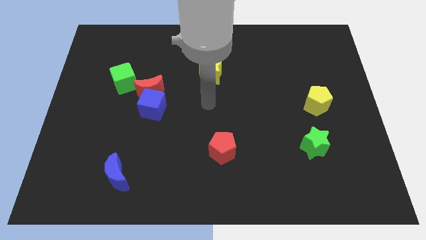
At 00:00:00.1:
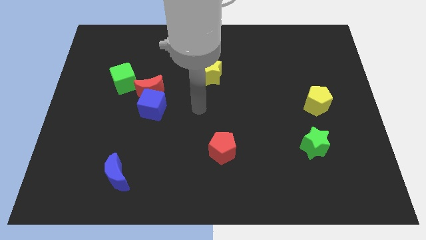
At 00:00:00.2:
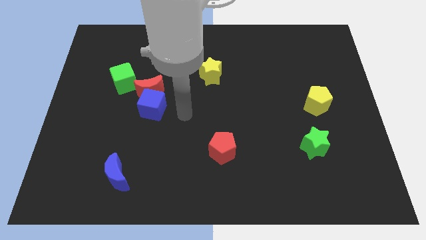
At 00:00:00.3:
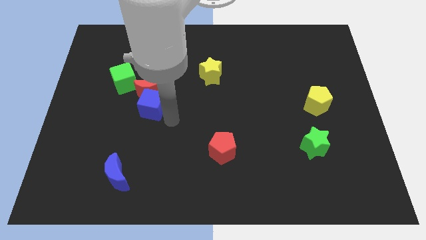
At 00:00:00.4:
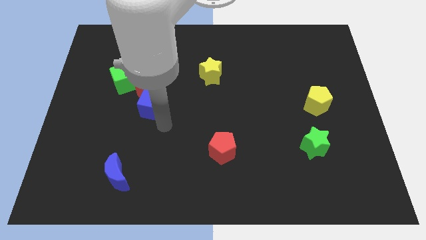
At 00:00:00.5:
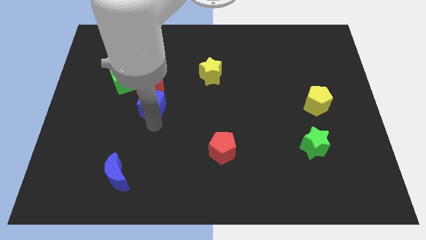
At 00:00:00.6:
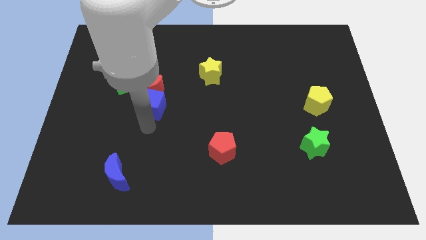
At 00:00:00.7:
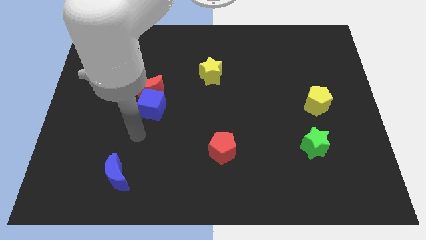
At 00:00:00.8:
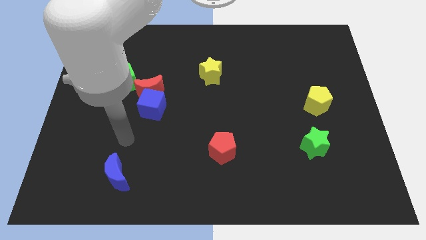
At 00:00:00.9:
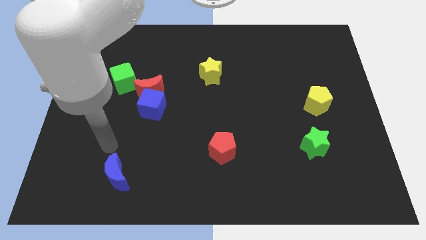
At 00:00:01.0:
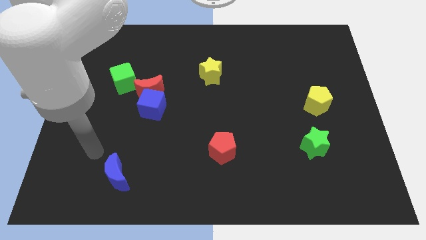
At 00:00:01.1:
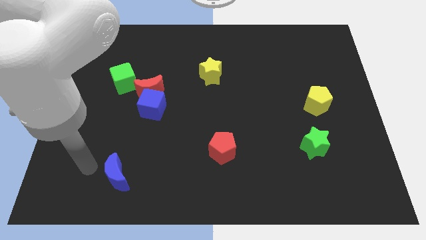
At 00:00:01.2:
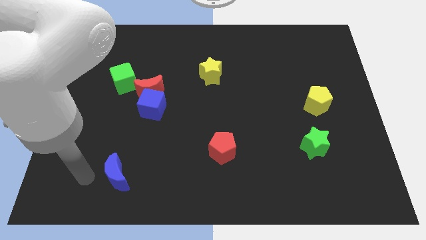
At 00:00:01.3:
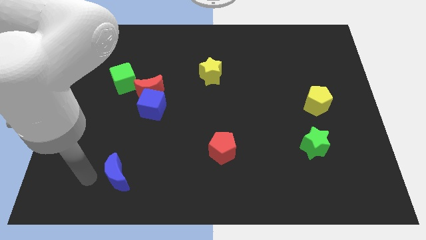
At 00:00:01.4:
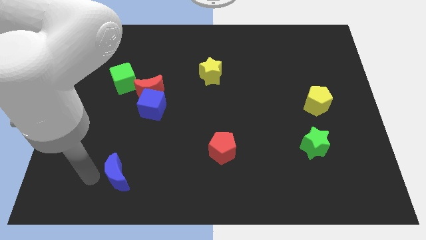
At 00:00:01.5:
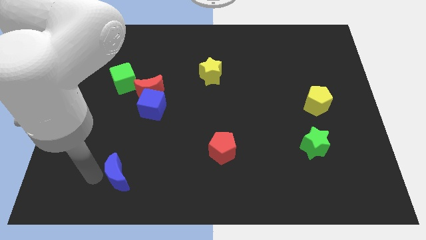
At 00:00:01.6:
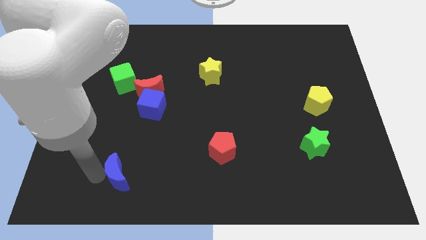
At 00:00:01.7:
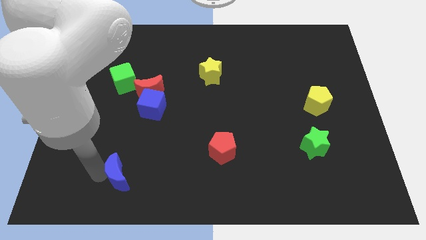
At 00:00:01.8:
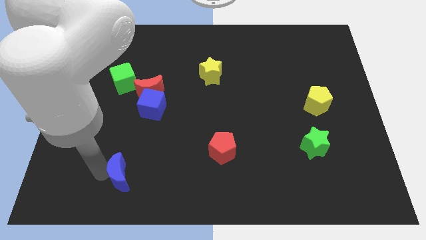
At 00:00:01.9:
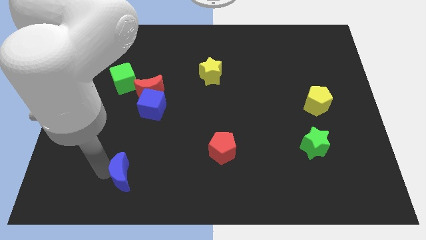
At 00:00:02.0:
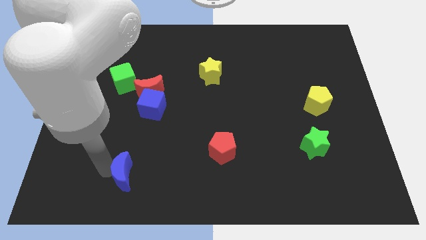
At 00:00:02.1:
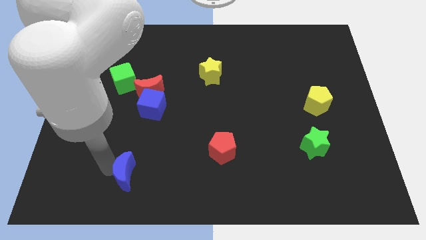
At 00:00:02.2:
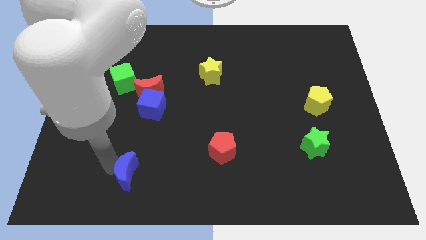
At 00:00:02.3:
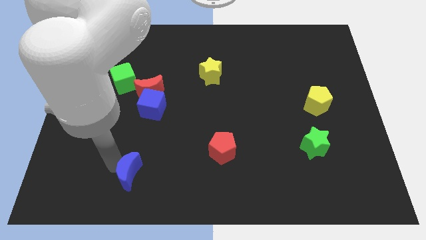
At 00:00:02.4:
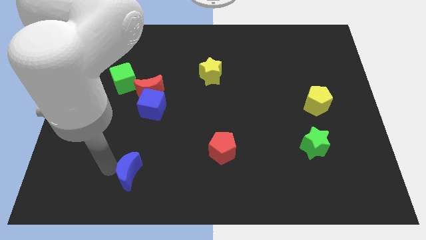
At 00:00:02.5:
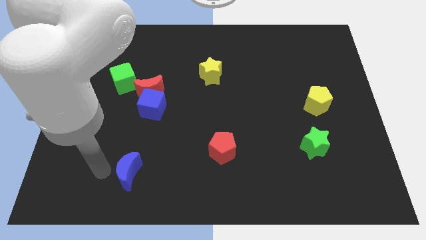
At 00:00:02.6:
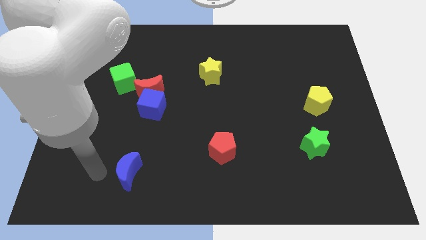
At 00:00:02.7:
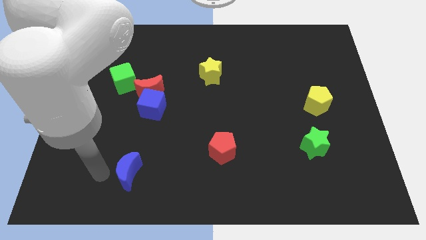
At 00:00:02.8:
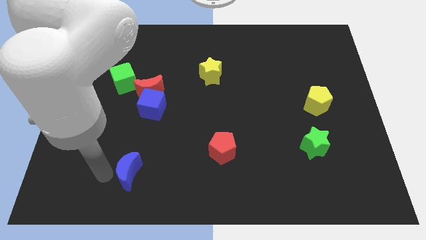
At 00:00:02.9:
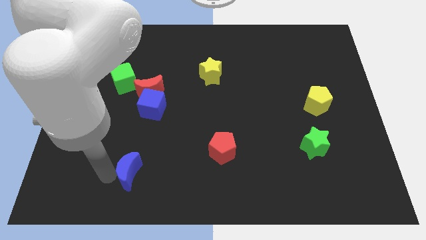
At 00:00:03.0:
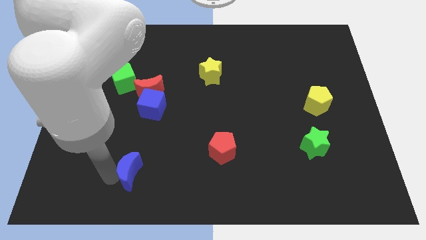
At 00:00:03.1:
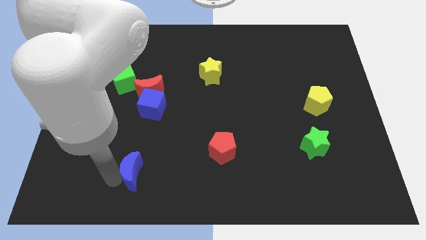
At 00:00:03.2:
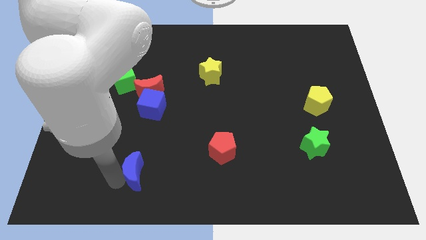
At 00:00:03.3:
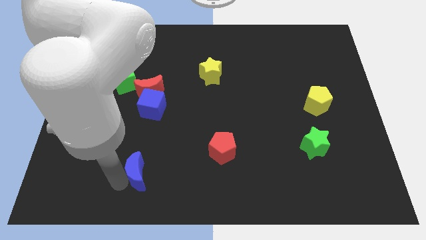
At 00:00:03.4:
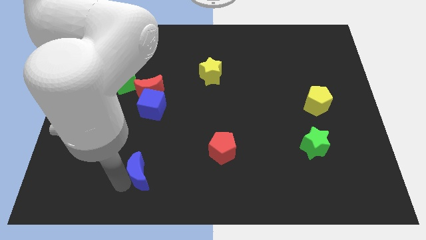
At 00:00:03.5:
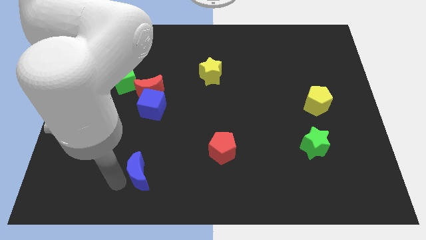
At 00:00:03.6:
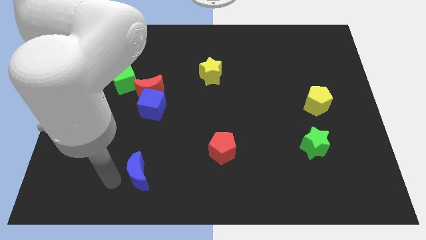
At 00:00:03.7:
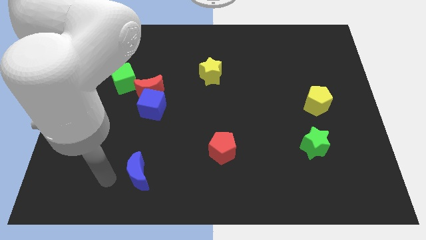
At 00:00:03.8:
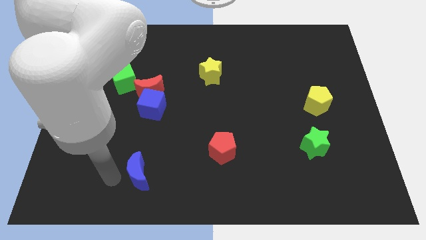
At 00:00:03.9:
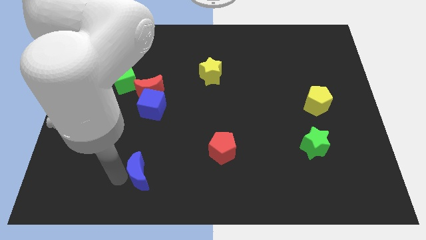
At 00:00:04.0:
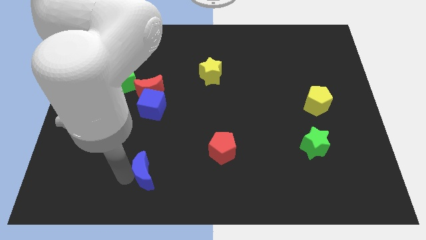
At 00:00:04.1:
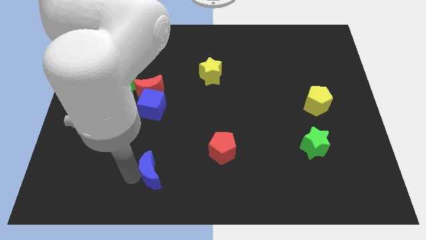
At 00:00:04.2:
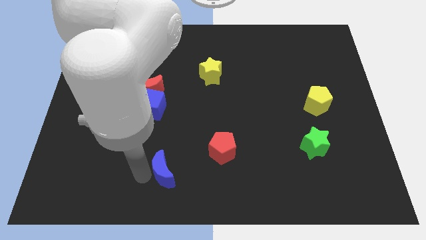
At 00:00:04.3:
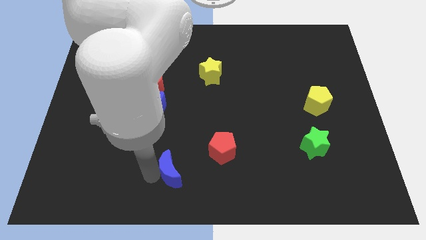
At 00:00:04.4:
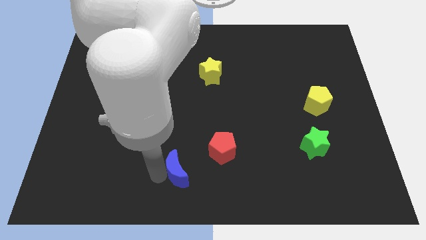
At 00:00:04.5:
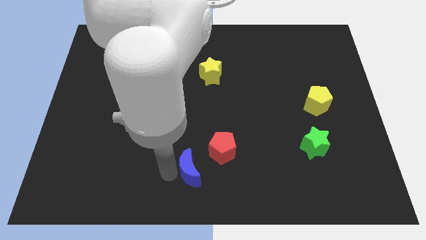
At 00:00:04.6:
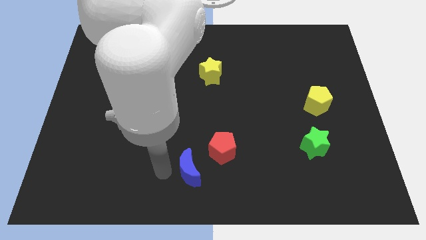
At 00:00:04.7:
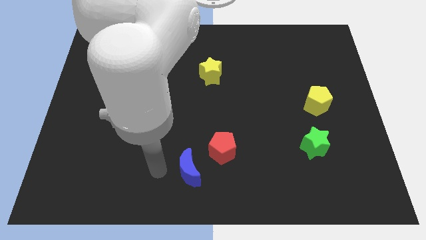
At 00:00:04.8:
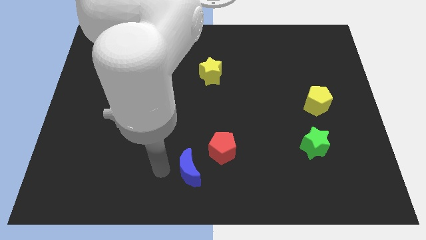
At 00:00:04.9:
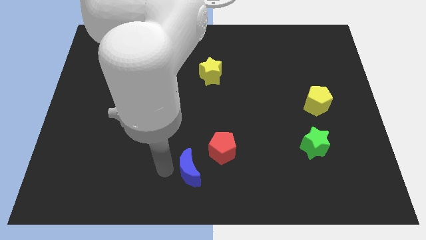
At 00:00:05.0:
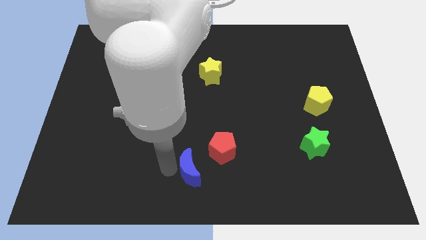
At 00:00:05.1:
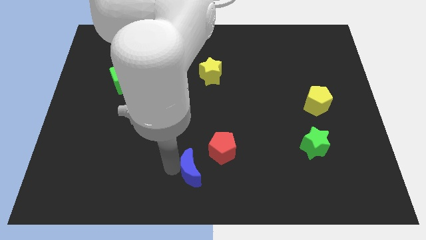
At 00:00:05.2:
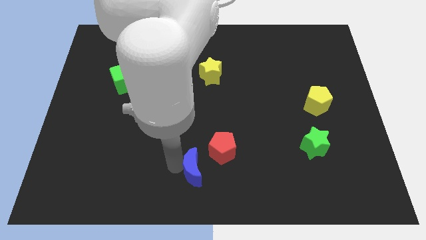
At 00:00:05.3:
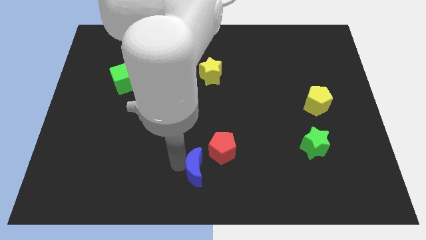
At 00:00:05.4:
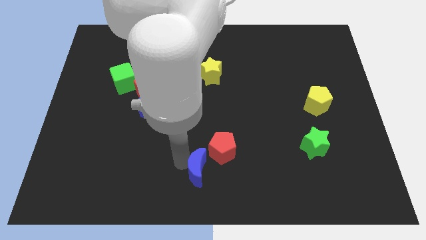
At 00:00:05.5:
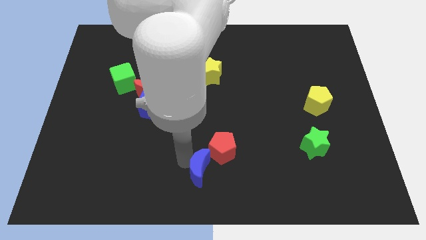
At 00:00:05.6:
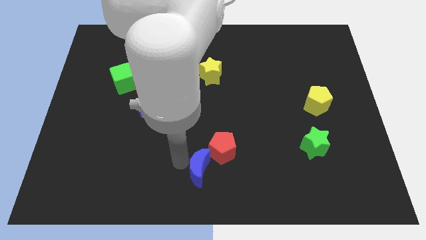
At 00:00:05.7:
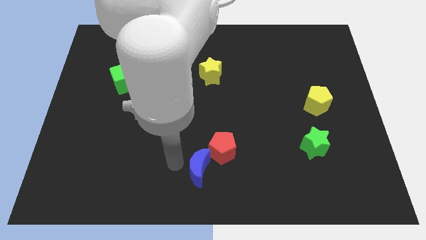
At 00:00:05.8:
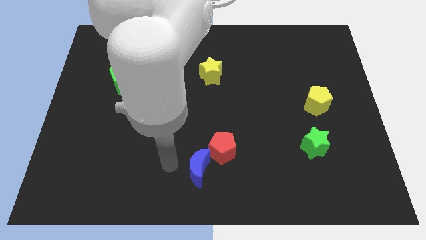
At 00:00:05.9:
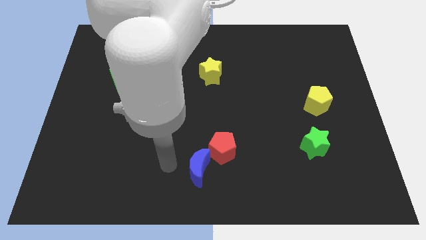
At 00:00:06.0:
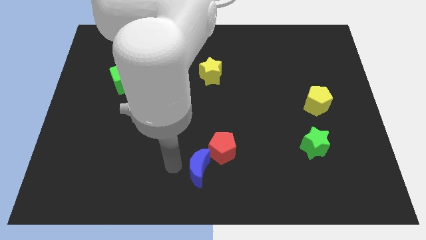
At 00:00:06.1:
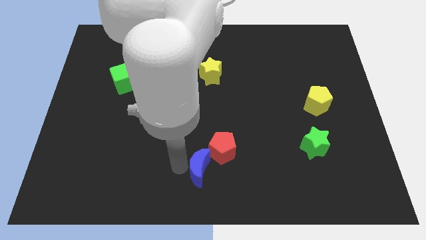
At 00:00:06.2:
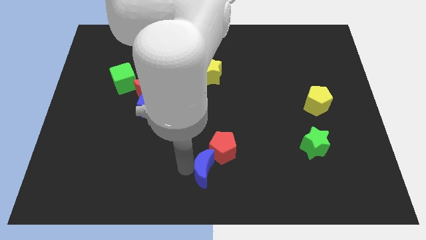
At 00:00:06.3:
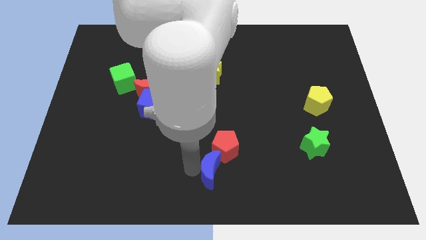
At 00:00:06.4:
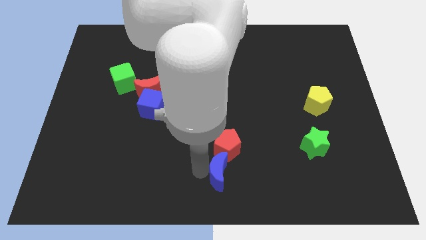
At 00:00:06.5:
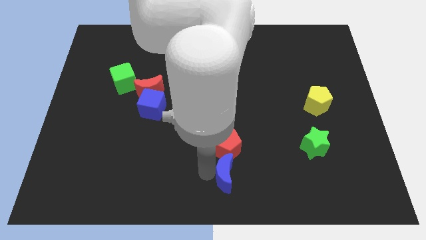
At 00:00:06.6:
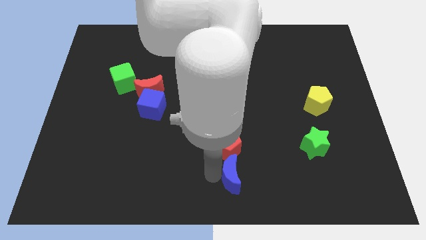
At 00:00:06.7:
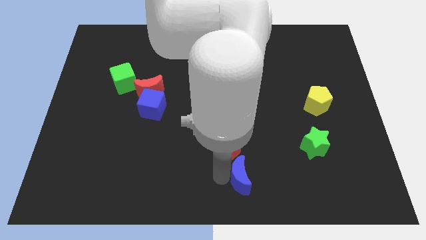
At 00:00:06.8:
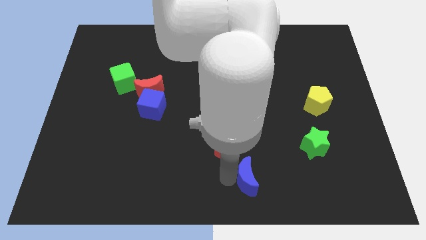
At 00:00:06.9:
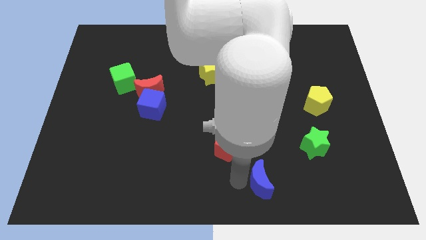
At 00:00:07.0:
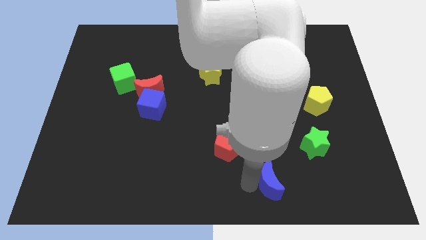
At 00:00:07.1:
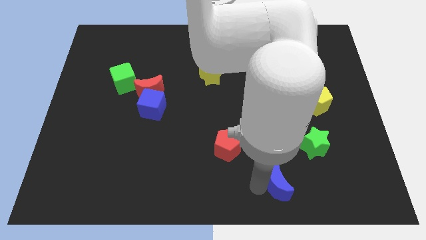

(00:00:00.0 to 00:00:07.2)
slide the blue moon to the bottom left of the green star

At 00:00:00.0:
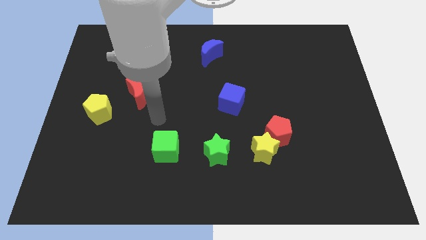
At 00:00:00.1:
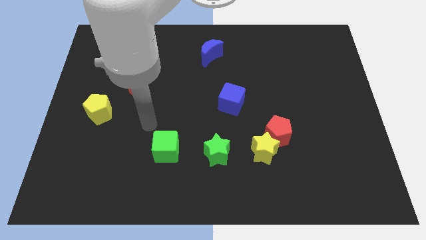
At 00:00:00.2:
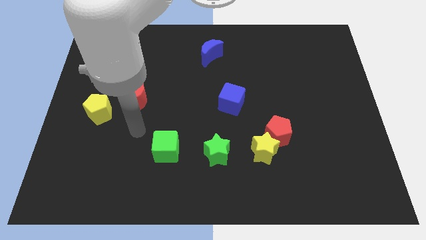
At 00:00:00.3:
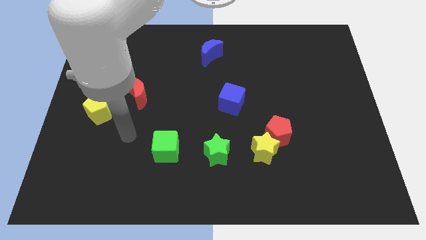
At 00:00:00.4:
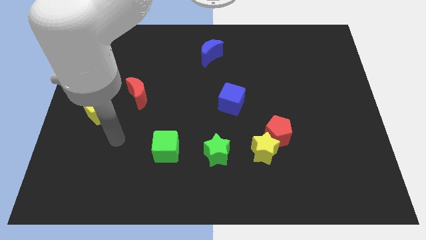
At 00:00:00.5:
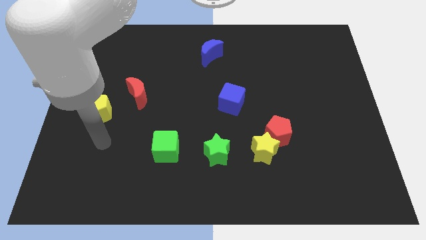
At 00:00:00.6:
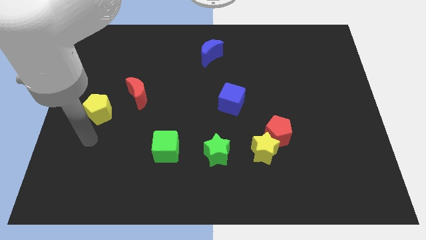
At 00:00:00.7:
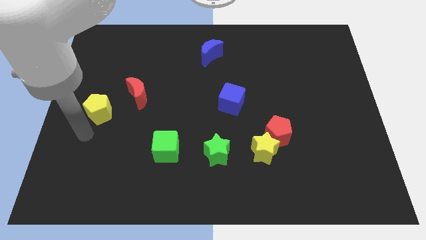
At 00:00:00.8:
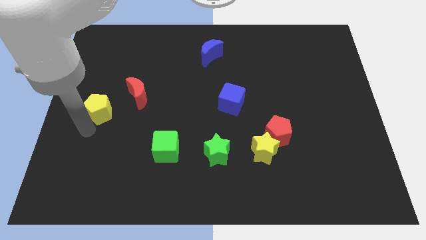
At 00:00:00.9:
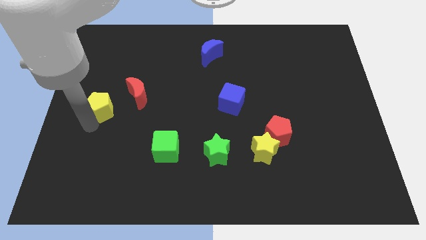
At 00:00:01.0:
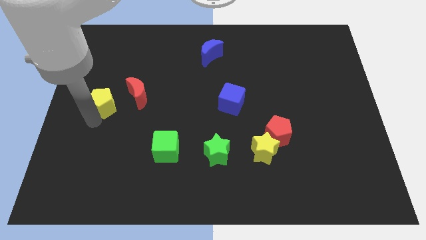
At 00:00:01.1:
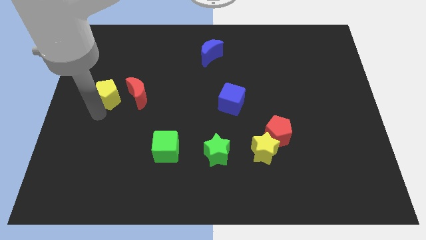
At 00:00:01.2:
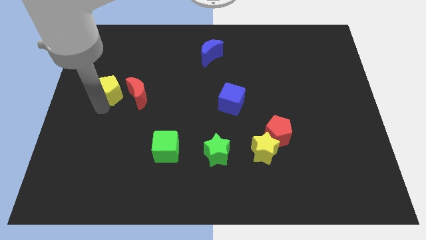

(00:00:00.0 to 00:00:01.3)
slide the yellow pentagon diagonally up and to the left of the red moon
